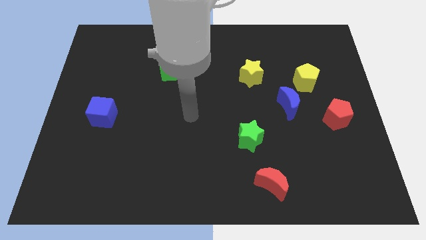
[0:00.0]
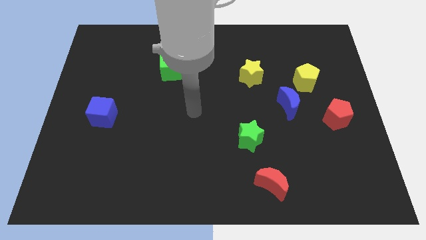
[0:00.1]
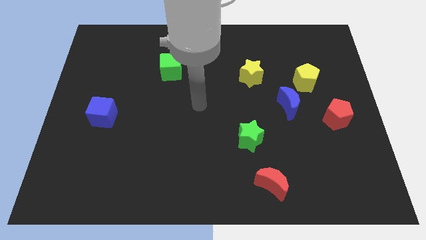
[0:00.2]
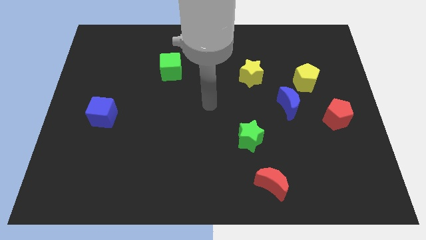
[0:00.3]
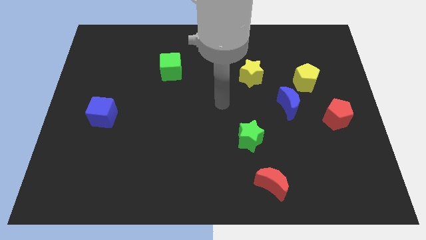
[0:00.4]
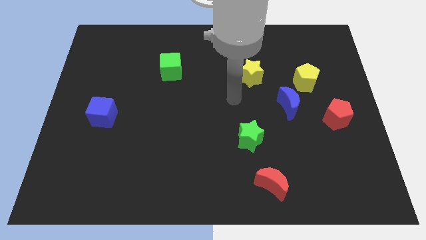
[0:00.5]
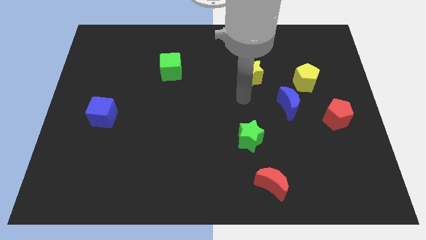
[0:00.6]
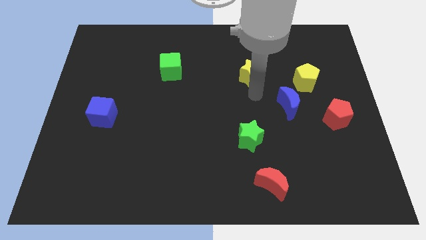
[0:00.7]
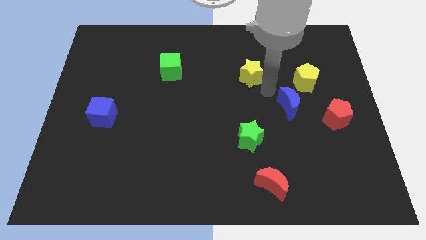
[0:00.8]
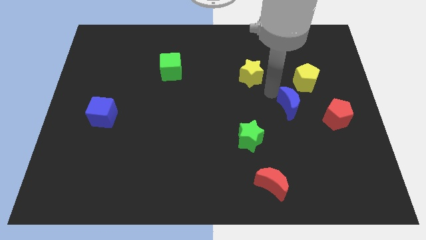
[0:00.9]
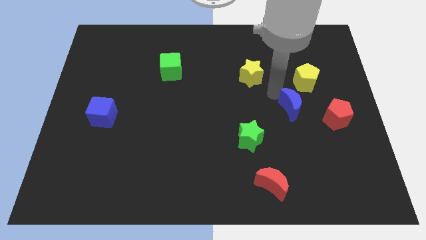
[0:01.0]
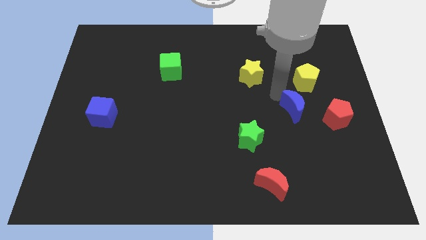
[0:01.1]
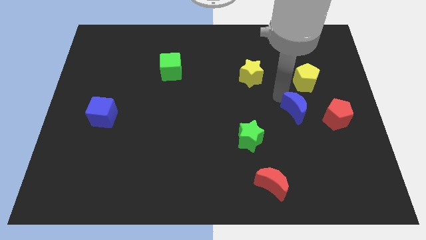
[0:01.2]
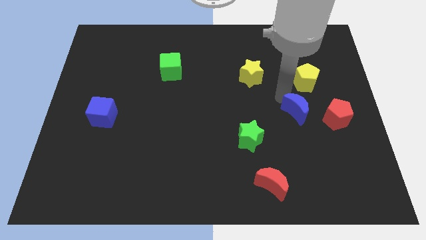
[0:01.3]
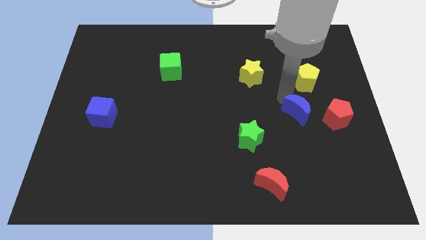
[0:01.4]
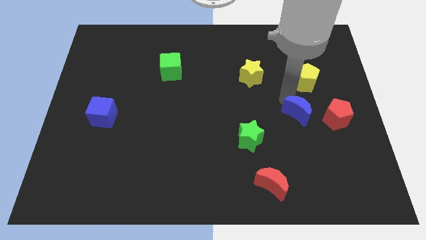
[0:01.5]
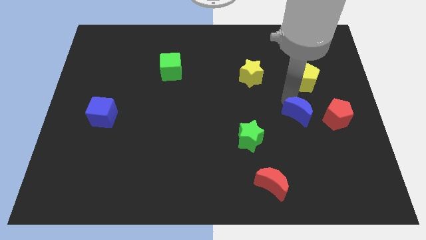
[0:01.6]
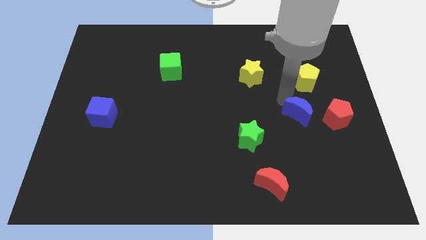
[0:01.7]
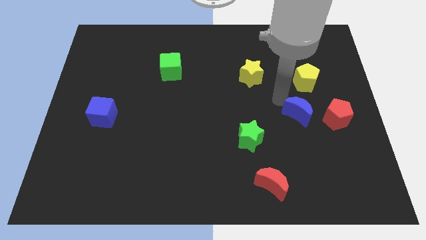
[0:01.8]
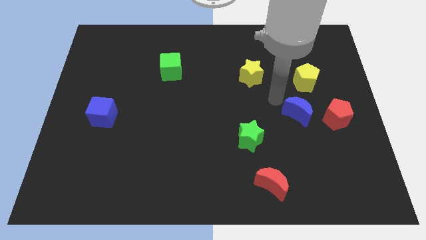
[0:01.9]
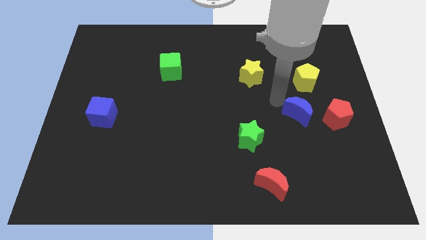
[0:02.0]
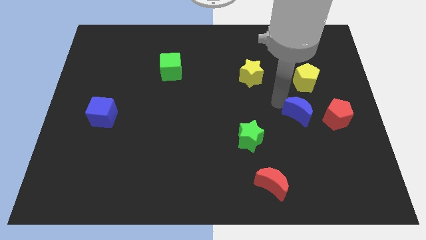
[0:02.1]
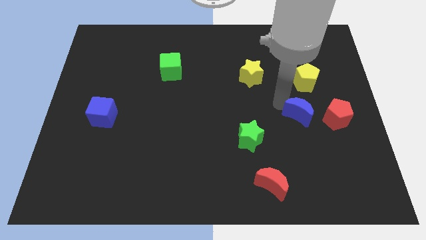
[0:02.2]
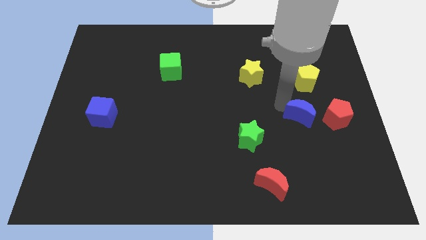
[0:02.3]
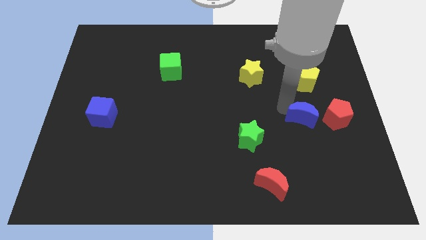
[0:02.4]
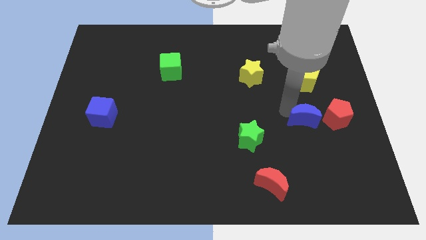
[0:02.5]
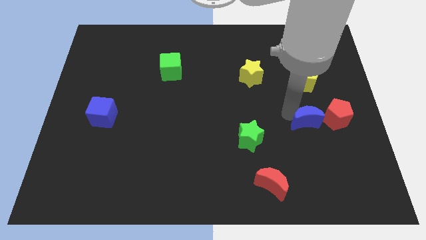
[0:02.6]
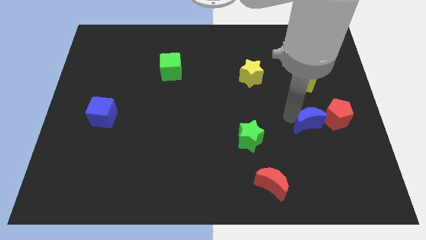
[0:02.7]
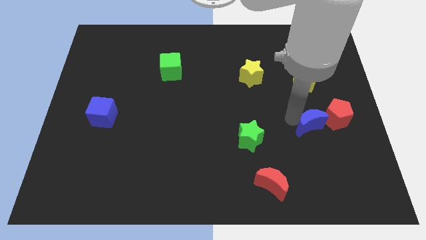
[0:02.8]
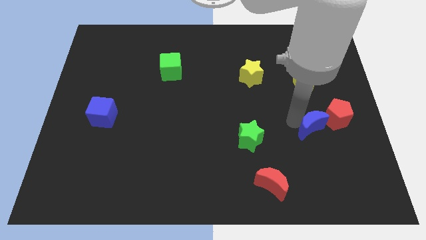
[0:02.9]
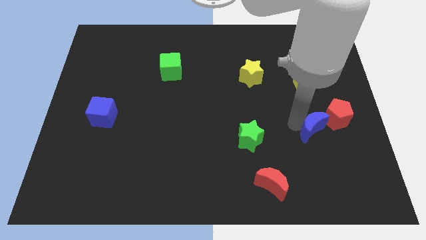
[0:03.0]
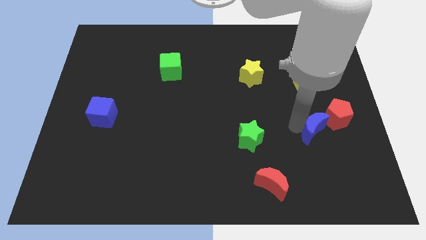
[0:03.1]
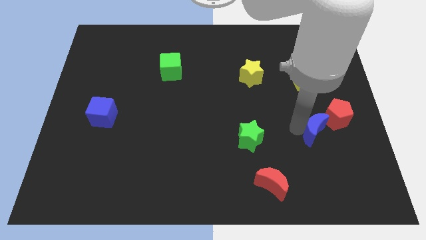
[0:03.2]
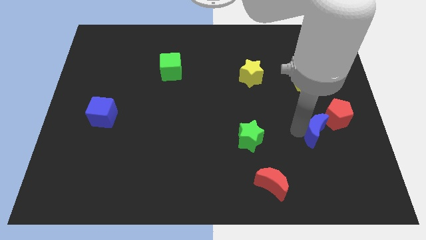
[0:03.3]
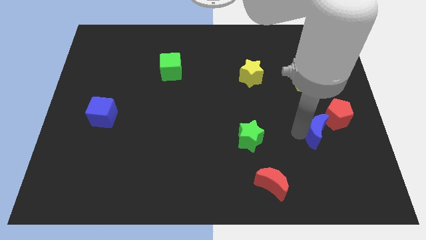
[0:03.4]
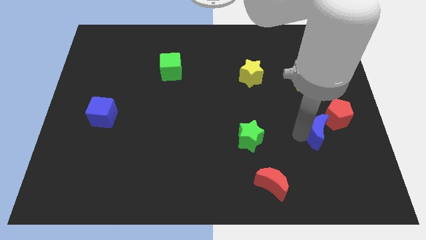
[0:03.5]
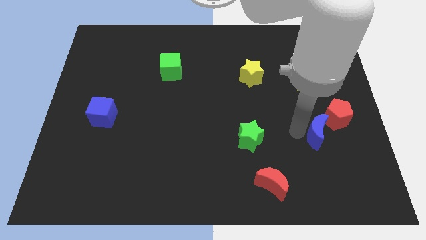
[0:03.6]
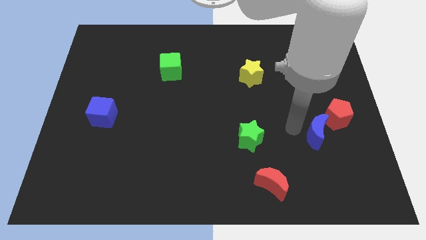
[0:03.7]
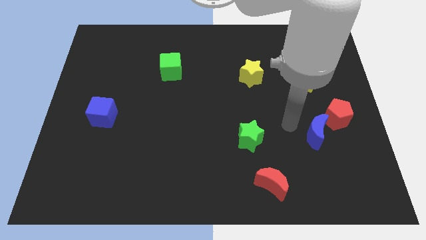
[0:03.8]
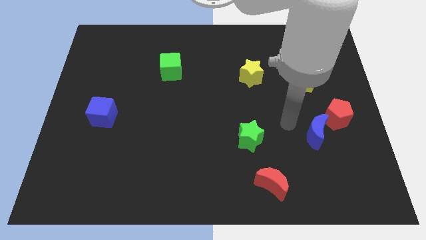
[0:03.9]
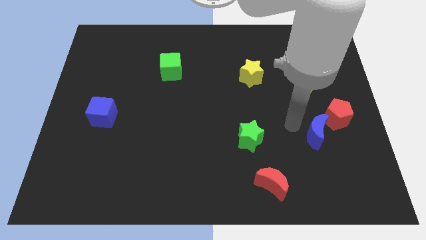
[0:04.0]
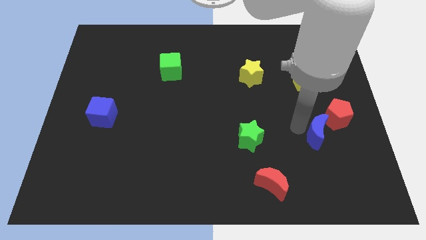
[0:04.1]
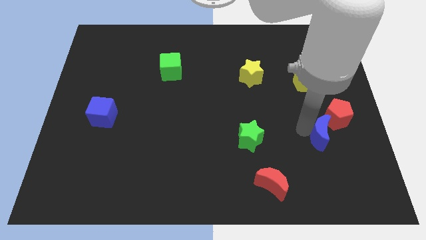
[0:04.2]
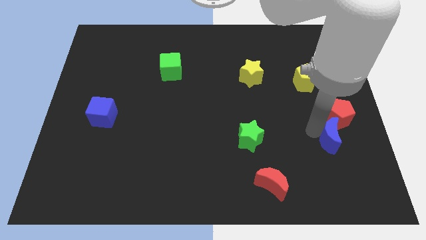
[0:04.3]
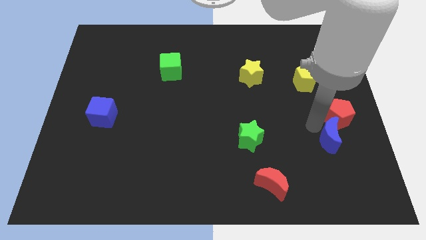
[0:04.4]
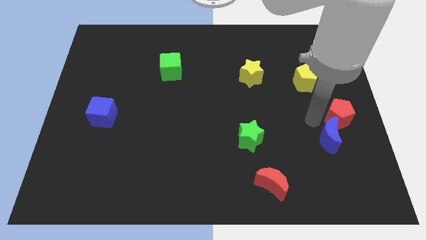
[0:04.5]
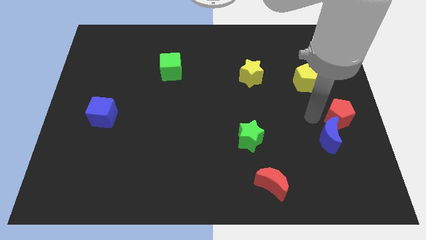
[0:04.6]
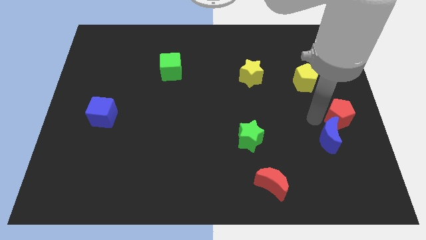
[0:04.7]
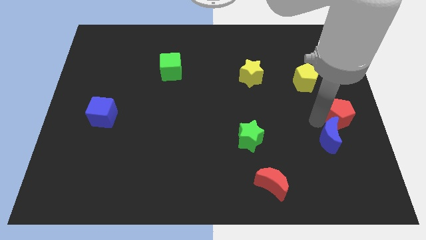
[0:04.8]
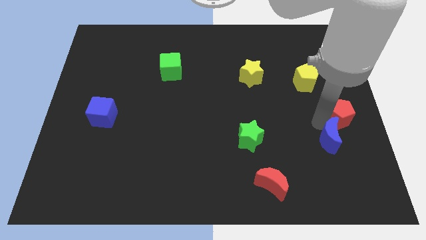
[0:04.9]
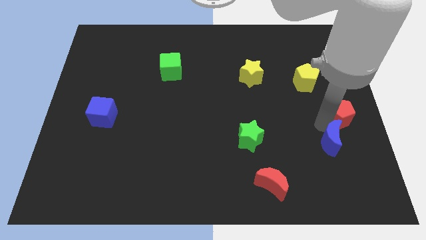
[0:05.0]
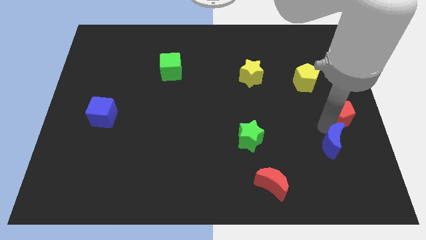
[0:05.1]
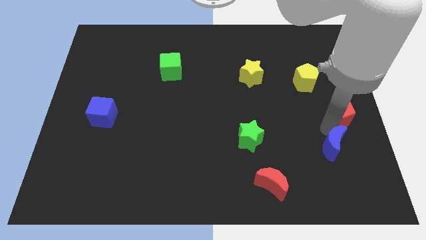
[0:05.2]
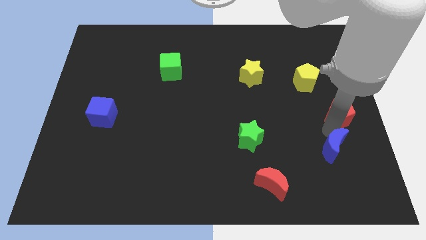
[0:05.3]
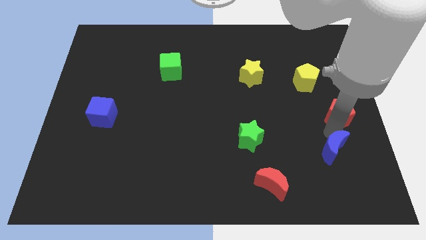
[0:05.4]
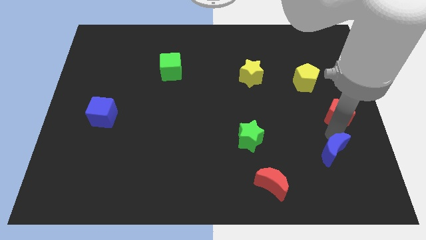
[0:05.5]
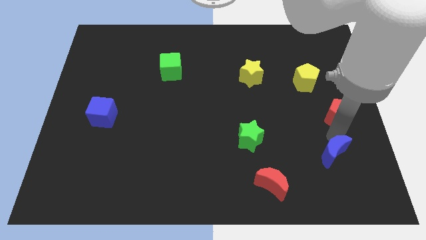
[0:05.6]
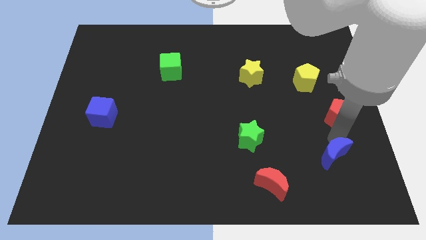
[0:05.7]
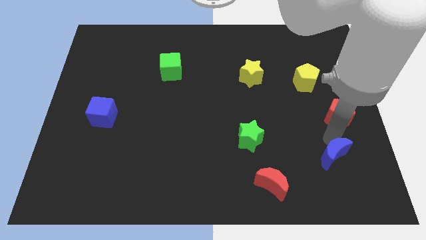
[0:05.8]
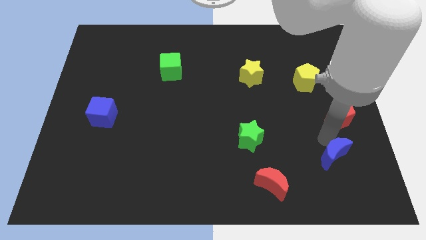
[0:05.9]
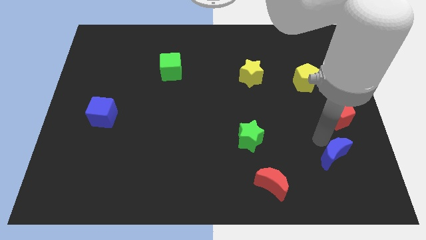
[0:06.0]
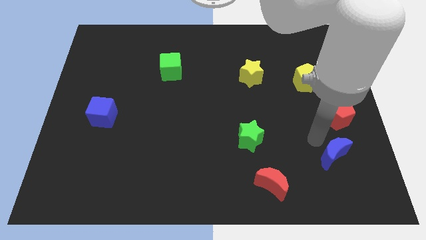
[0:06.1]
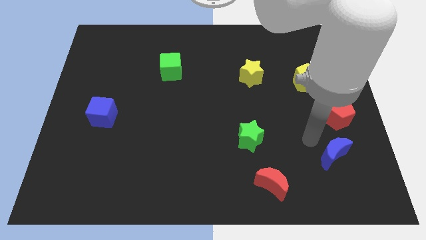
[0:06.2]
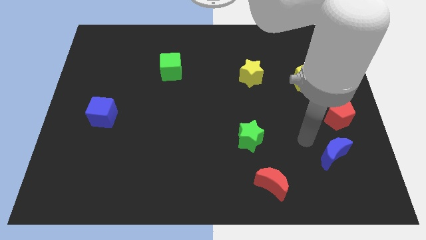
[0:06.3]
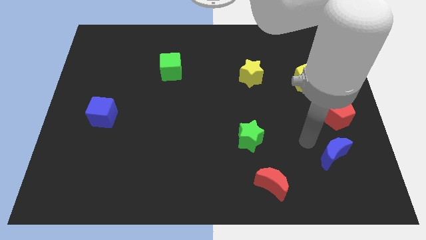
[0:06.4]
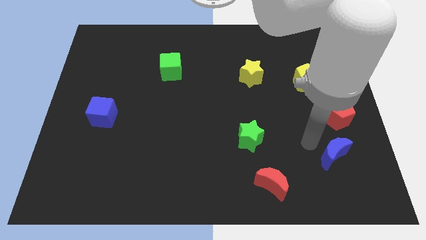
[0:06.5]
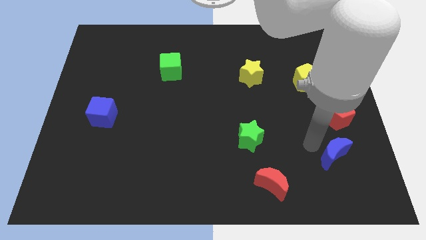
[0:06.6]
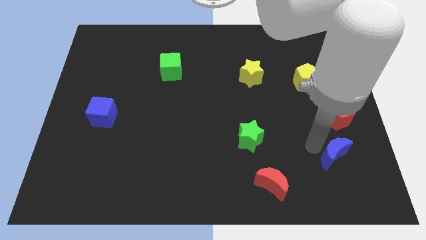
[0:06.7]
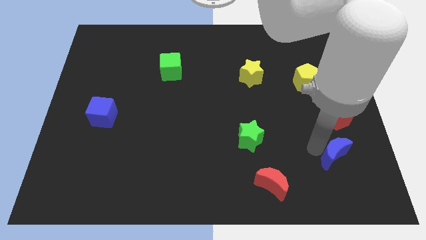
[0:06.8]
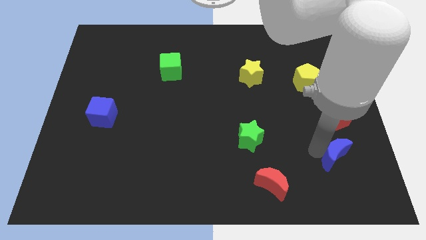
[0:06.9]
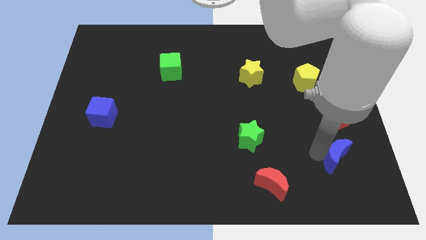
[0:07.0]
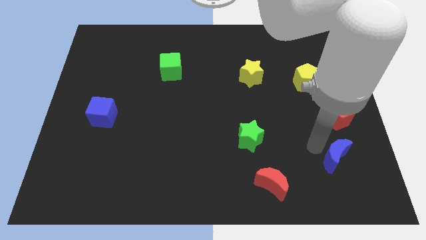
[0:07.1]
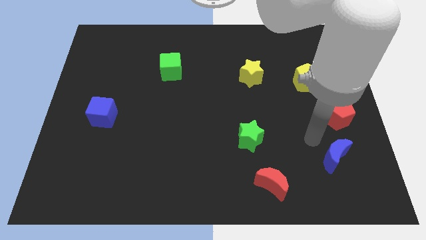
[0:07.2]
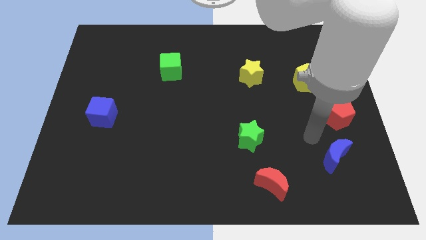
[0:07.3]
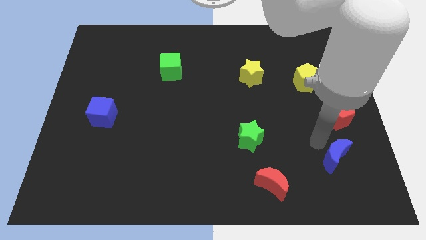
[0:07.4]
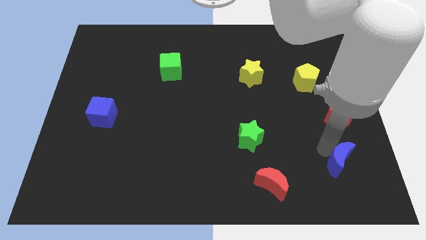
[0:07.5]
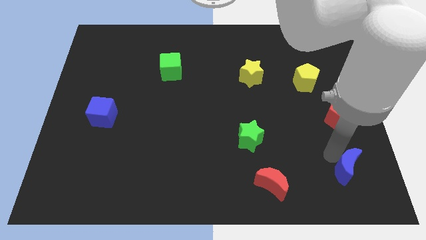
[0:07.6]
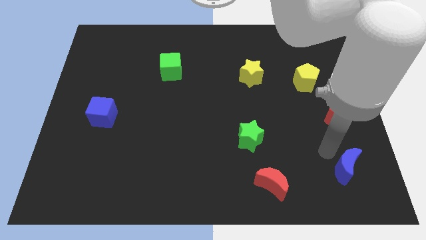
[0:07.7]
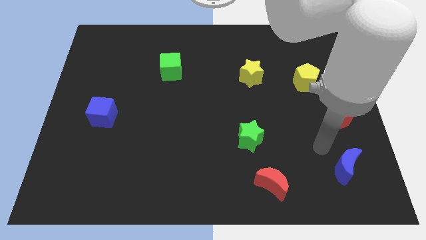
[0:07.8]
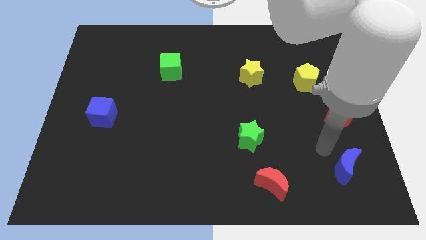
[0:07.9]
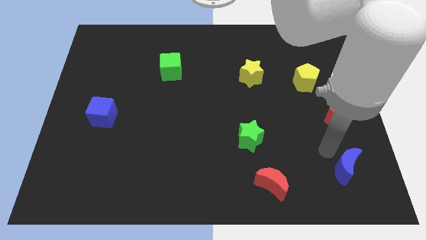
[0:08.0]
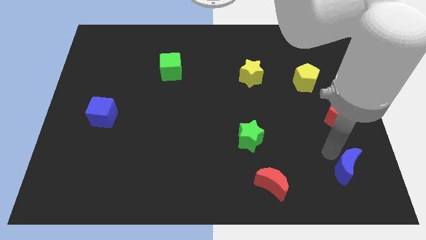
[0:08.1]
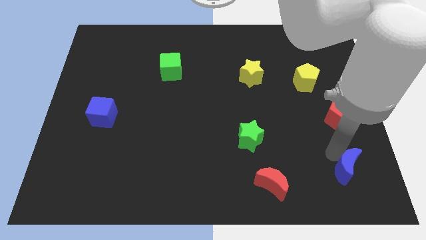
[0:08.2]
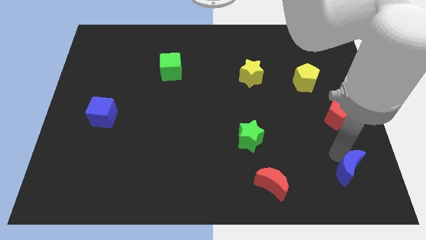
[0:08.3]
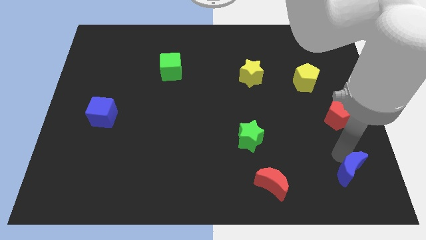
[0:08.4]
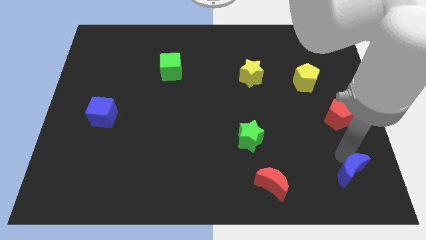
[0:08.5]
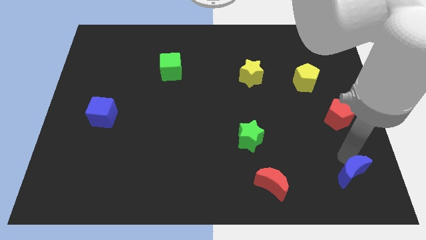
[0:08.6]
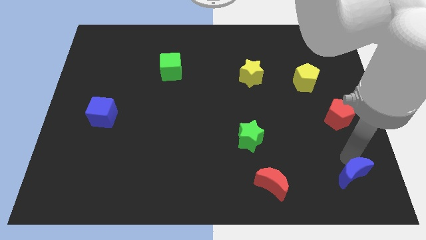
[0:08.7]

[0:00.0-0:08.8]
move the blue moon to the bottom right
